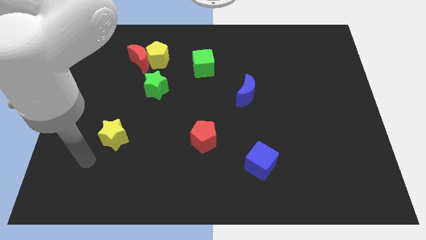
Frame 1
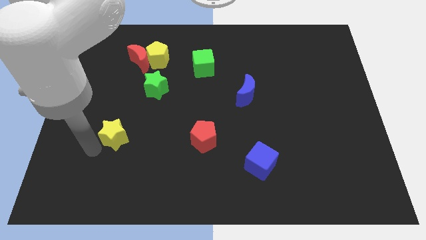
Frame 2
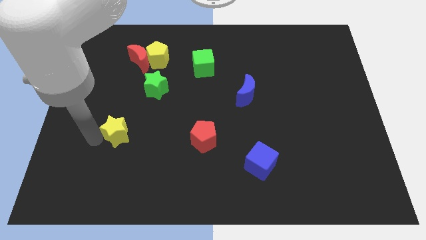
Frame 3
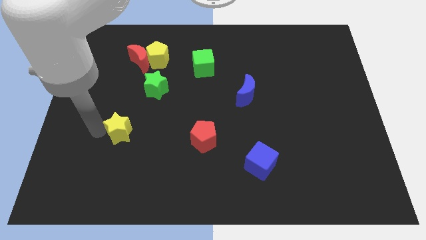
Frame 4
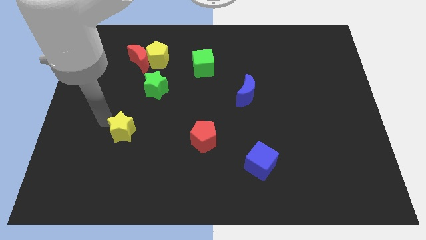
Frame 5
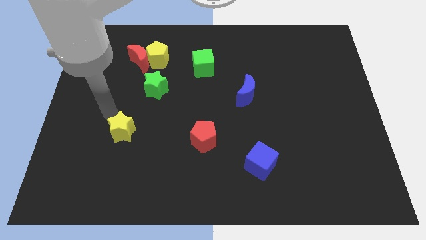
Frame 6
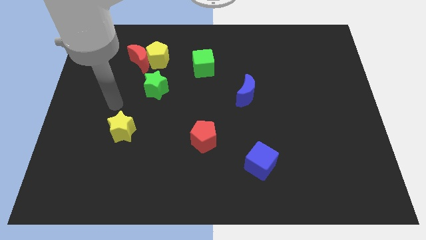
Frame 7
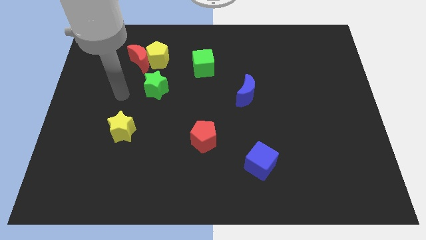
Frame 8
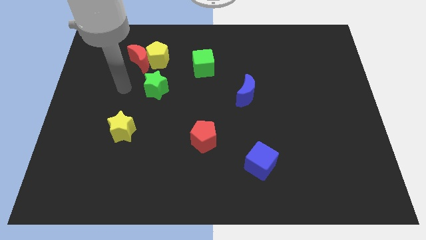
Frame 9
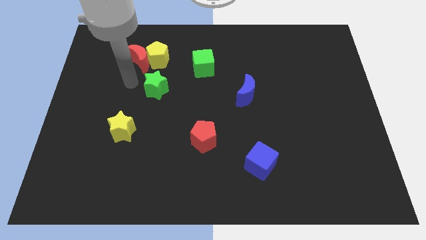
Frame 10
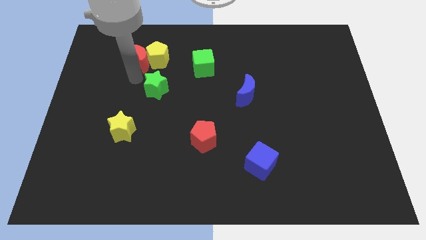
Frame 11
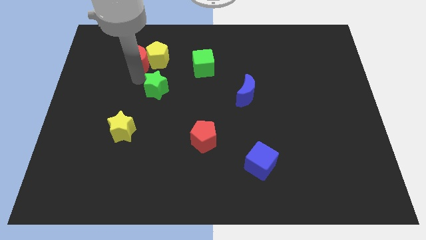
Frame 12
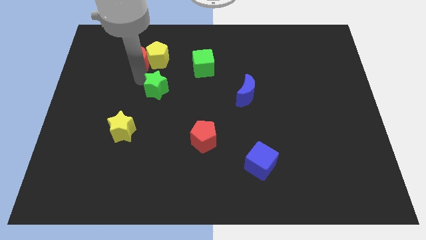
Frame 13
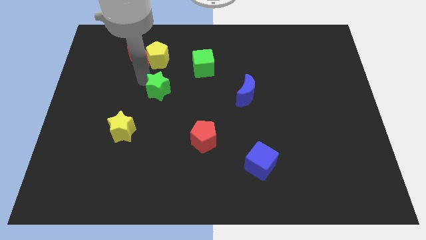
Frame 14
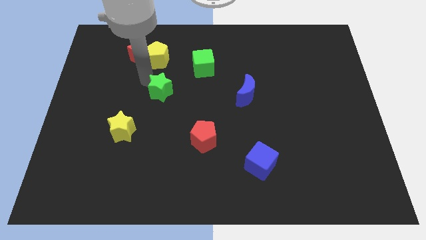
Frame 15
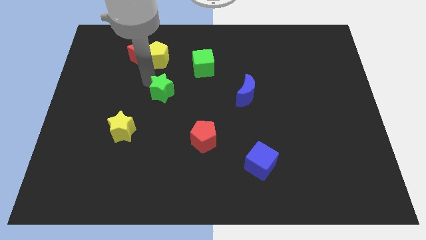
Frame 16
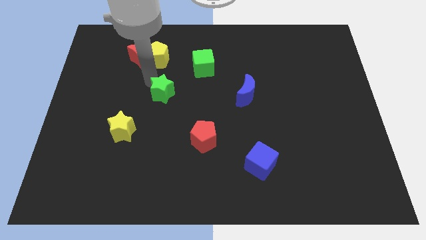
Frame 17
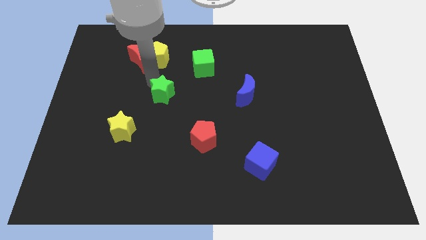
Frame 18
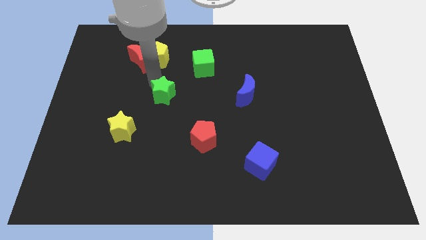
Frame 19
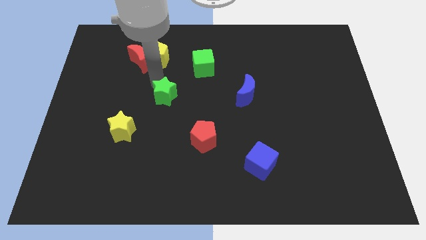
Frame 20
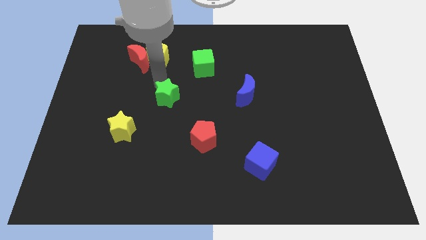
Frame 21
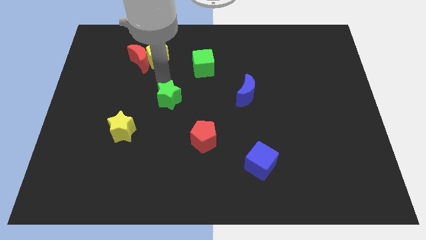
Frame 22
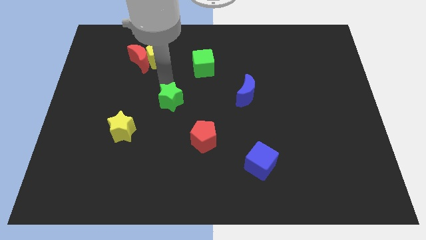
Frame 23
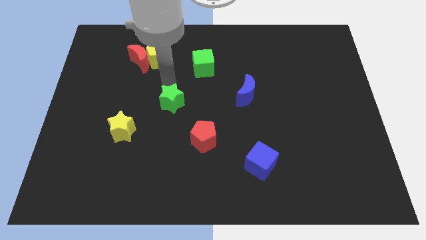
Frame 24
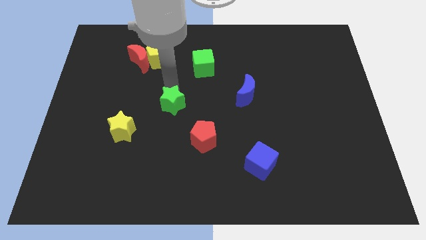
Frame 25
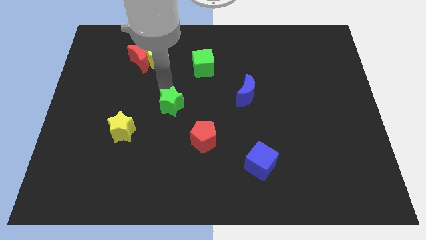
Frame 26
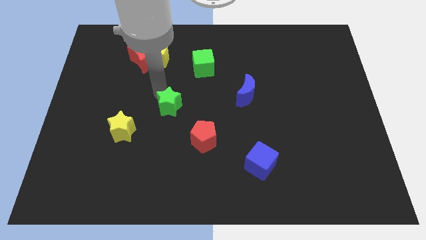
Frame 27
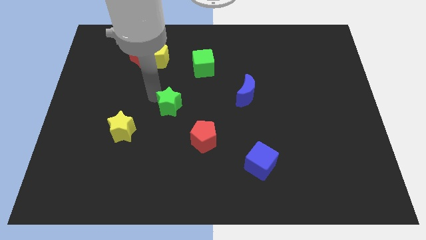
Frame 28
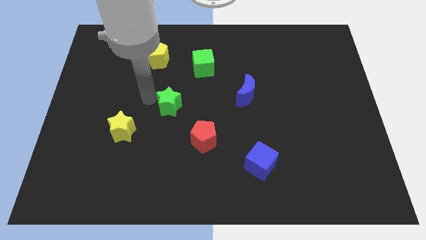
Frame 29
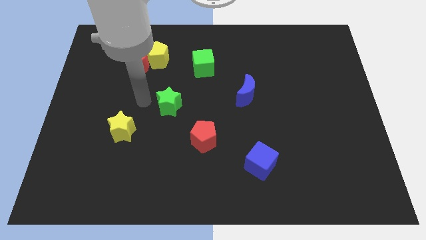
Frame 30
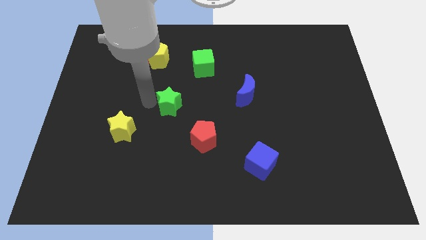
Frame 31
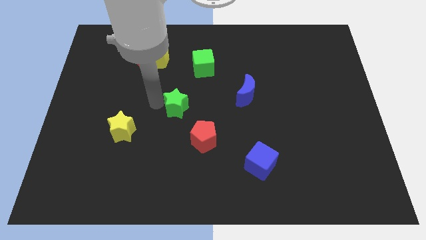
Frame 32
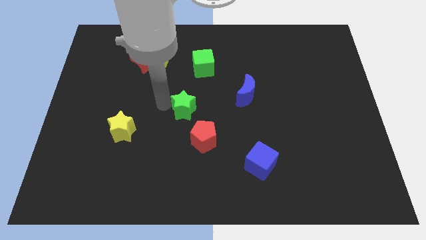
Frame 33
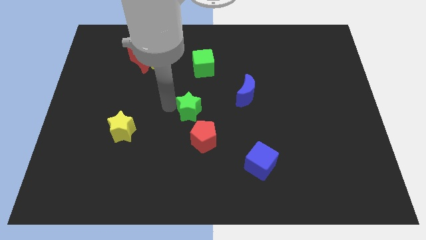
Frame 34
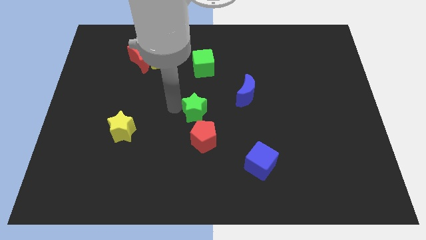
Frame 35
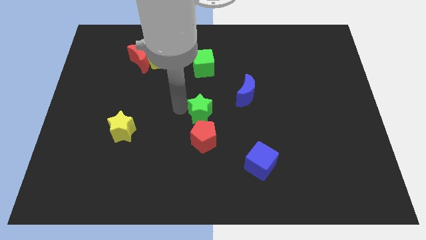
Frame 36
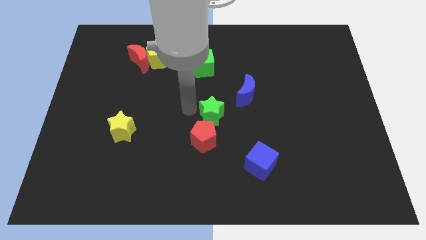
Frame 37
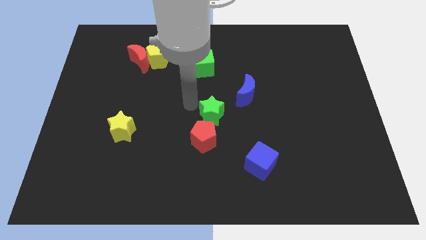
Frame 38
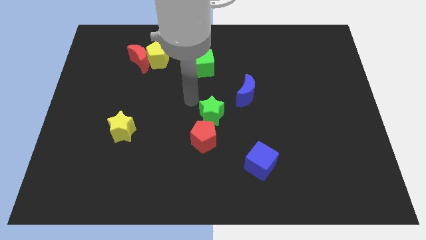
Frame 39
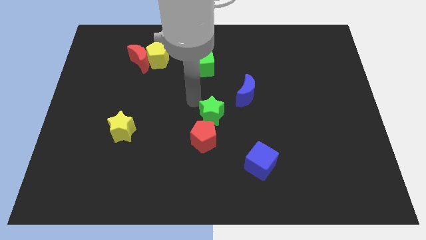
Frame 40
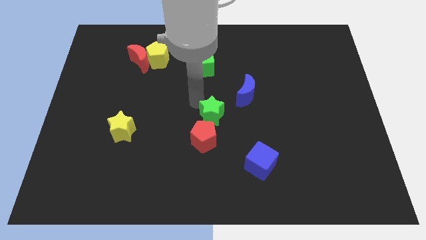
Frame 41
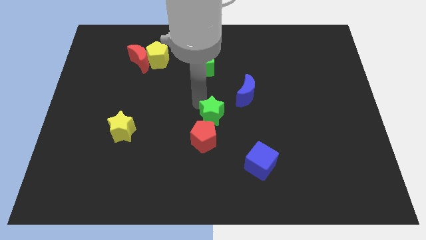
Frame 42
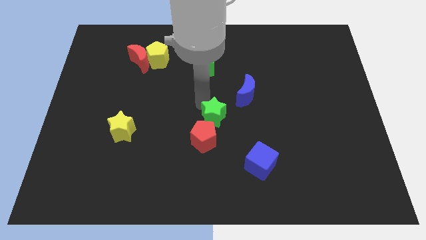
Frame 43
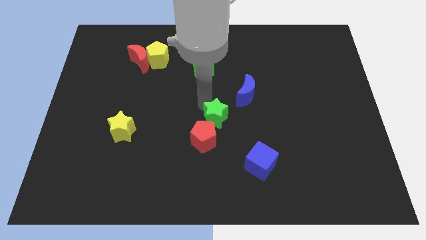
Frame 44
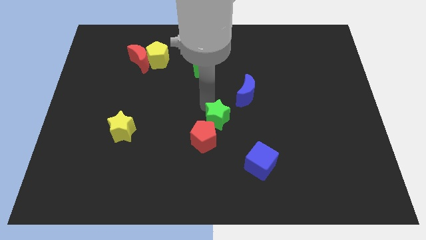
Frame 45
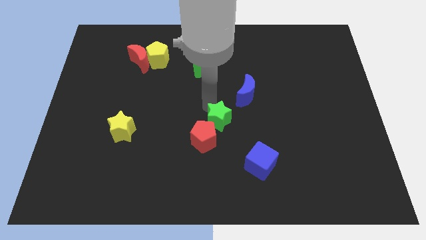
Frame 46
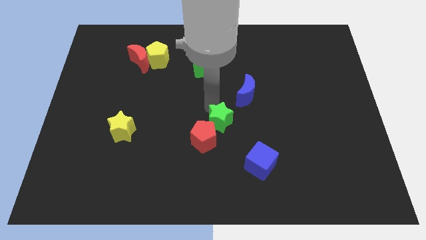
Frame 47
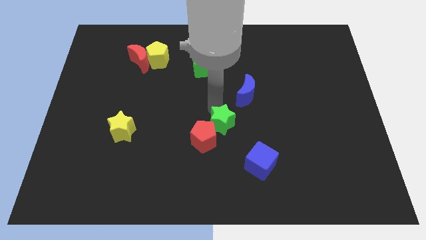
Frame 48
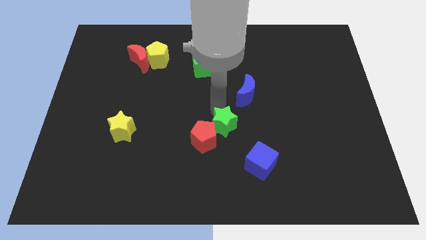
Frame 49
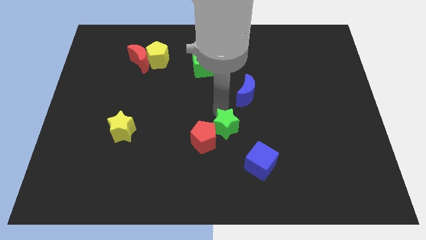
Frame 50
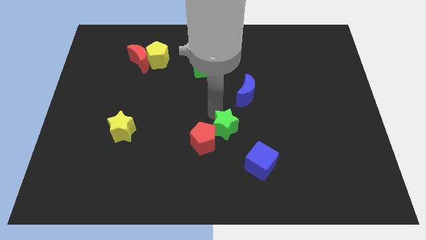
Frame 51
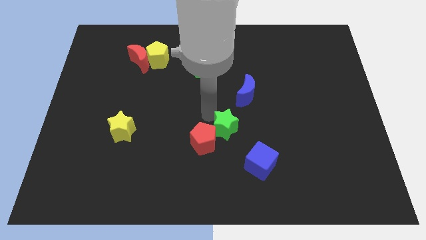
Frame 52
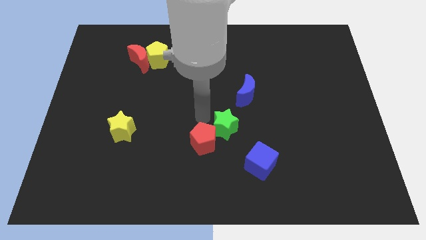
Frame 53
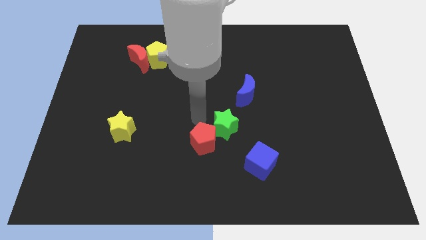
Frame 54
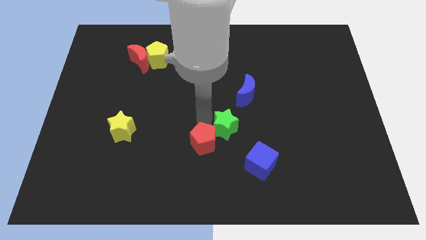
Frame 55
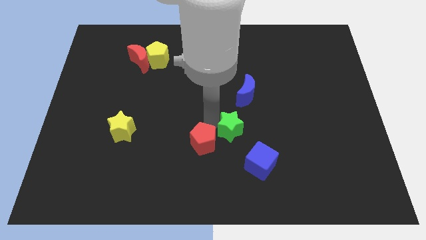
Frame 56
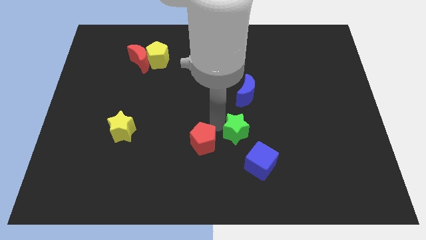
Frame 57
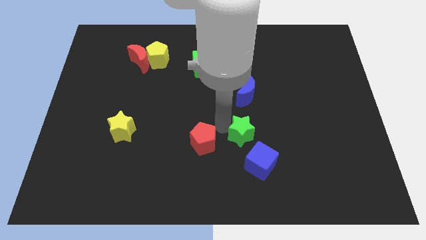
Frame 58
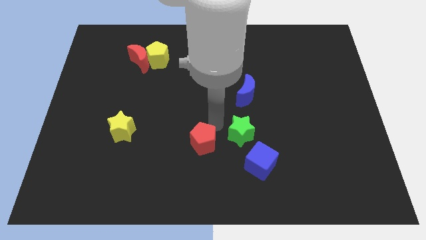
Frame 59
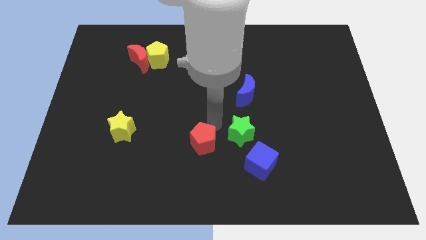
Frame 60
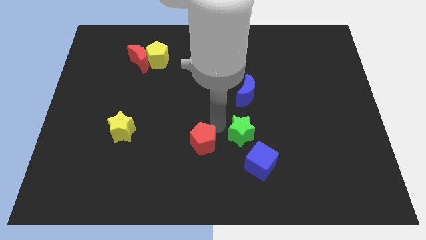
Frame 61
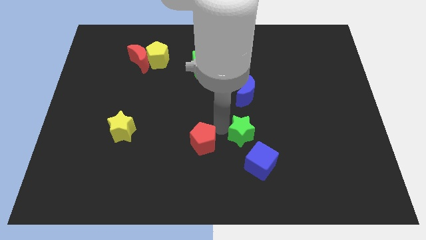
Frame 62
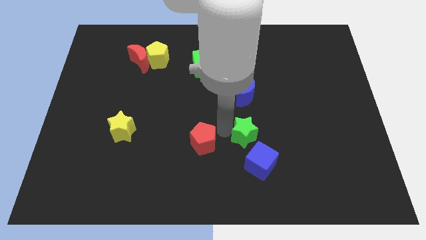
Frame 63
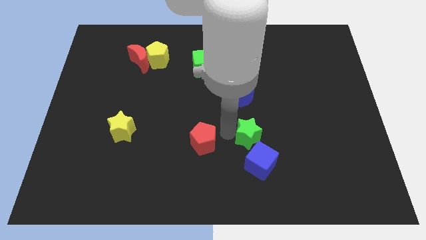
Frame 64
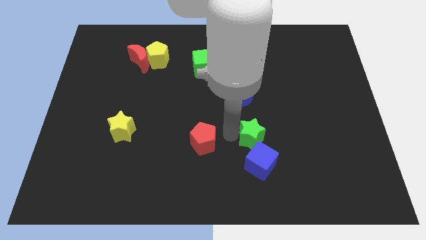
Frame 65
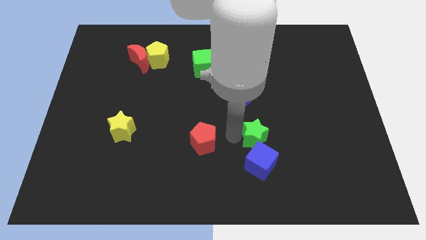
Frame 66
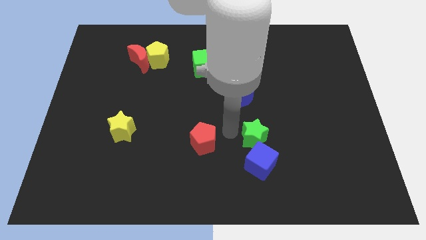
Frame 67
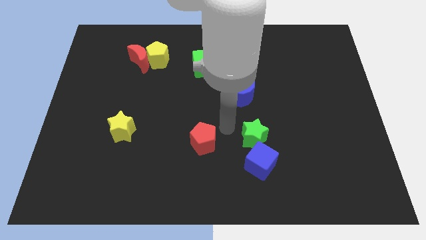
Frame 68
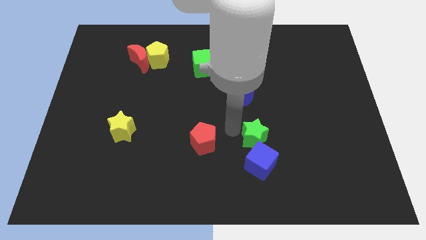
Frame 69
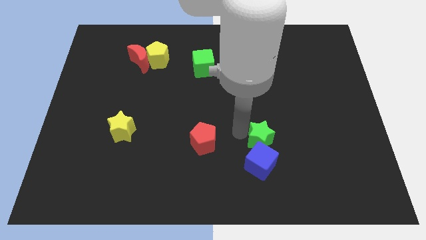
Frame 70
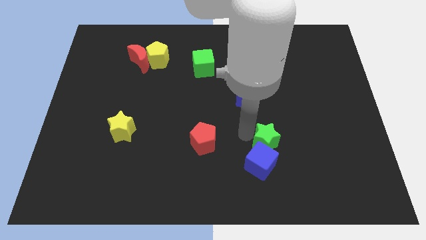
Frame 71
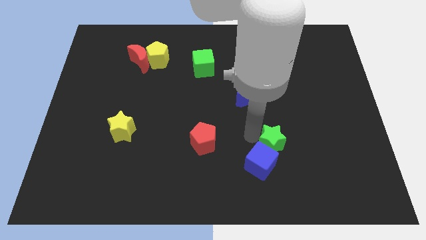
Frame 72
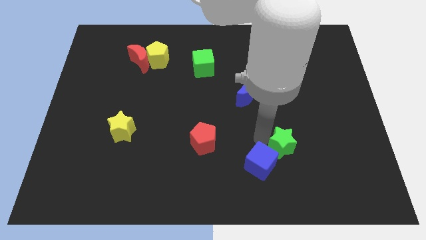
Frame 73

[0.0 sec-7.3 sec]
slide the green star just right of the blue cube
